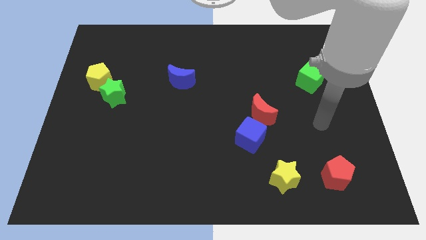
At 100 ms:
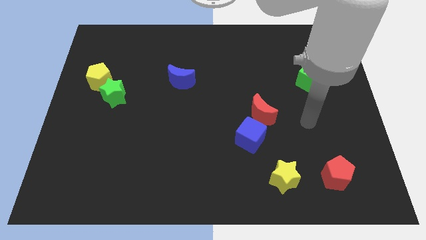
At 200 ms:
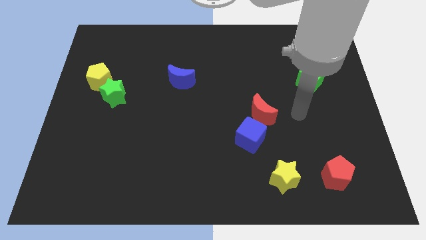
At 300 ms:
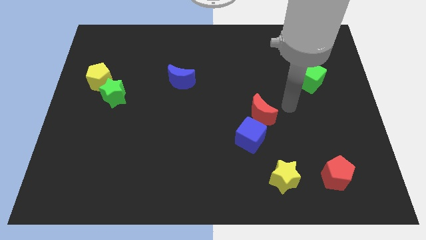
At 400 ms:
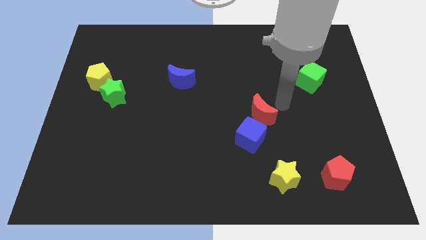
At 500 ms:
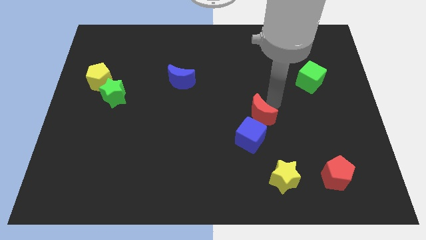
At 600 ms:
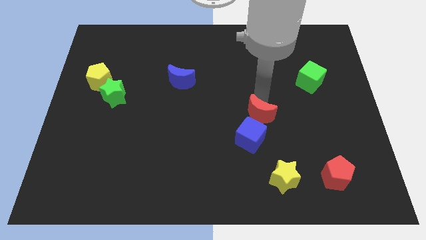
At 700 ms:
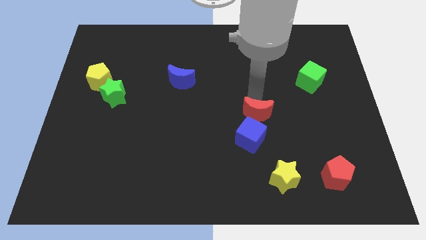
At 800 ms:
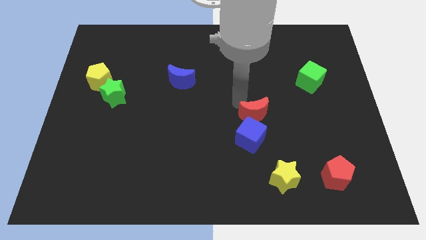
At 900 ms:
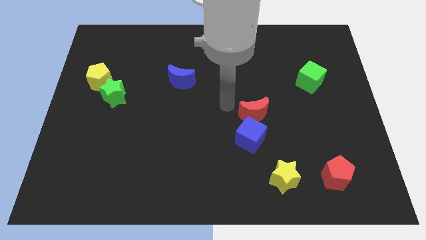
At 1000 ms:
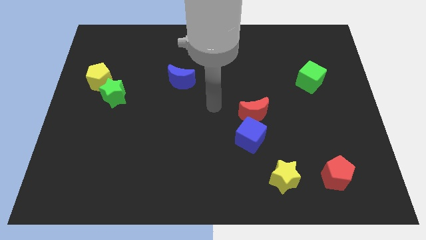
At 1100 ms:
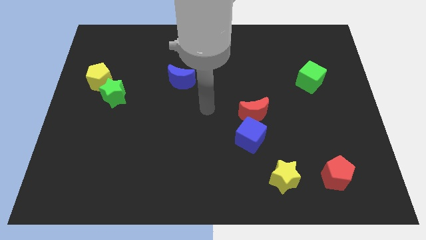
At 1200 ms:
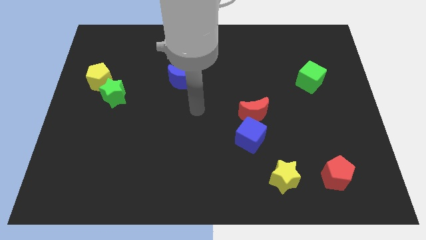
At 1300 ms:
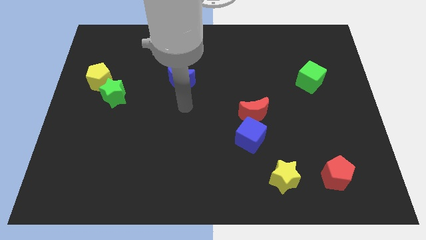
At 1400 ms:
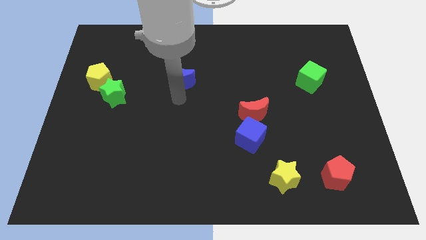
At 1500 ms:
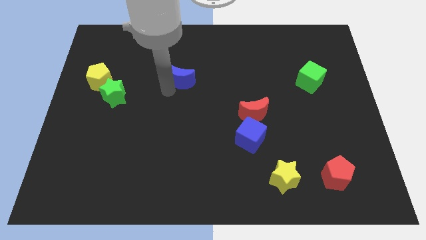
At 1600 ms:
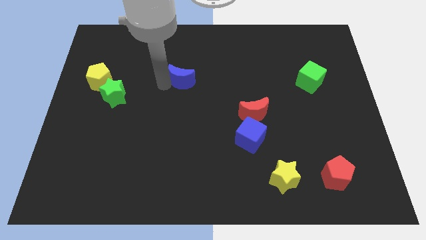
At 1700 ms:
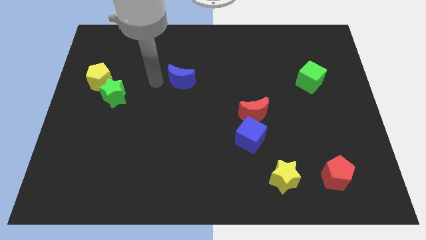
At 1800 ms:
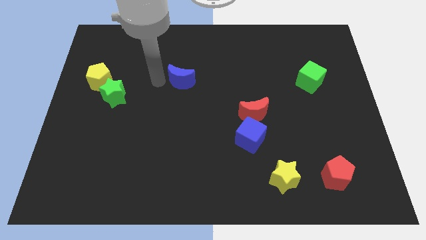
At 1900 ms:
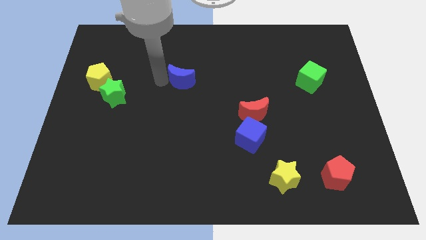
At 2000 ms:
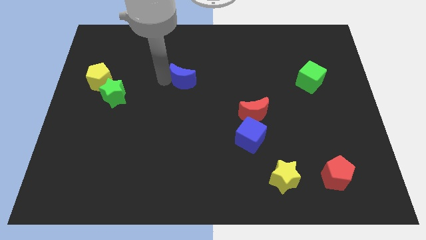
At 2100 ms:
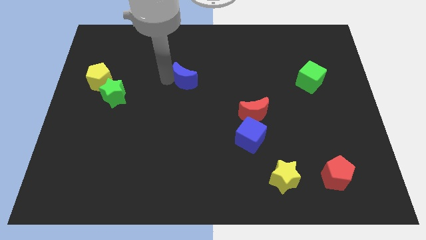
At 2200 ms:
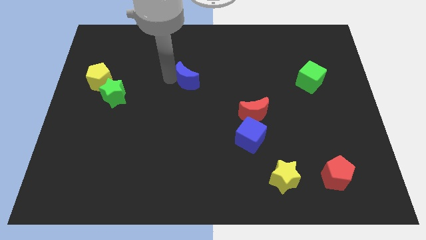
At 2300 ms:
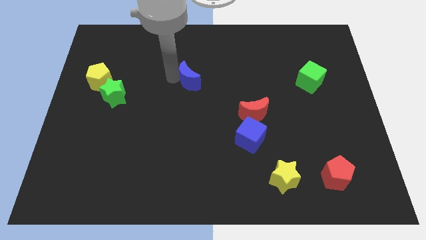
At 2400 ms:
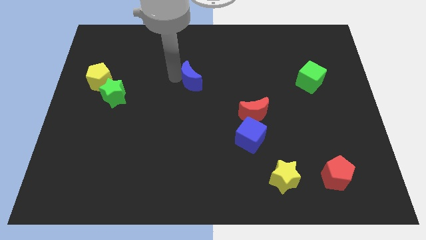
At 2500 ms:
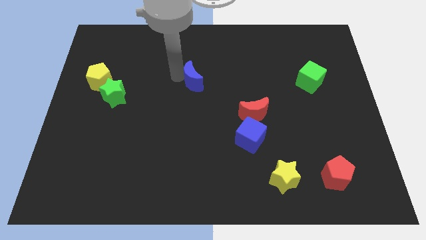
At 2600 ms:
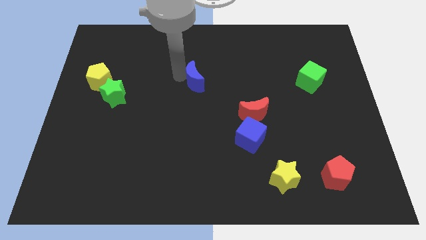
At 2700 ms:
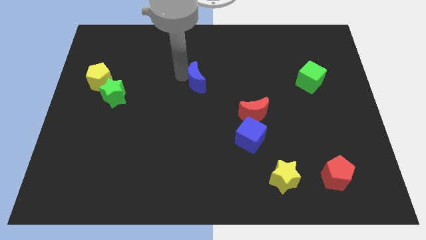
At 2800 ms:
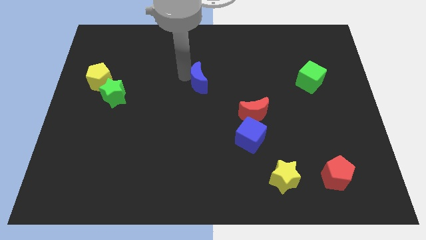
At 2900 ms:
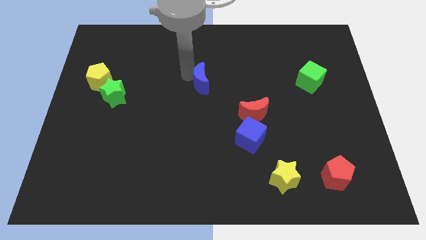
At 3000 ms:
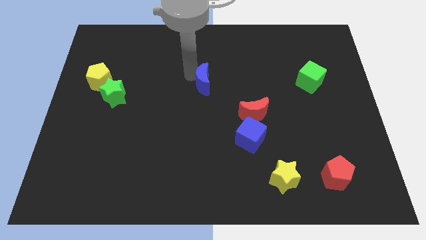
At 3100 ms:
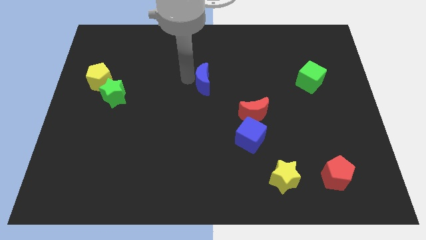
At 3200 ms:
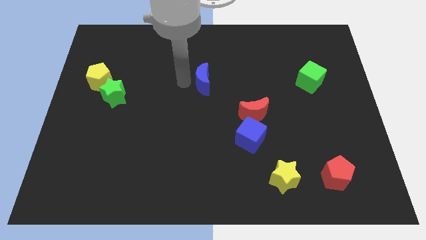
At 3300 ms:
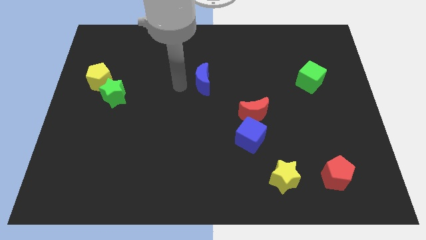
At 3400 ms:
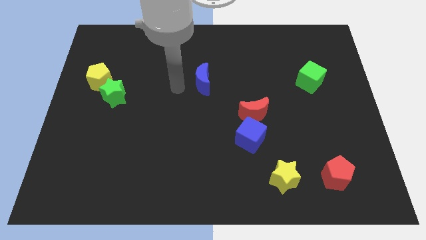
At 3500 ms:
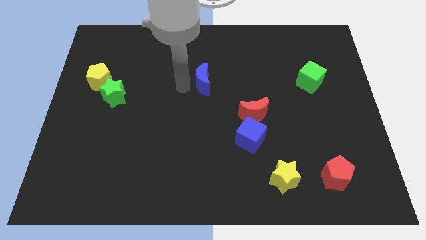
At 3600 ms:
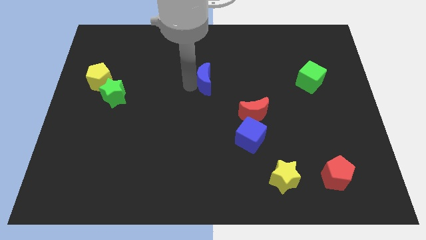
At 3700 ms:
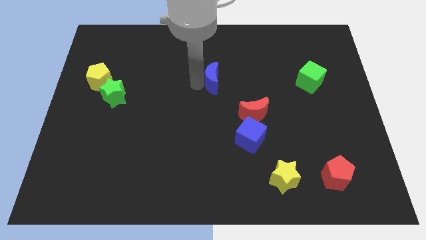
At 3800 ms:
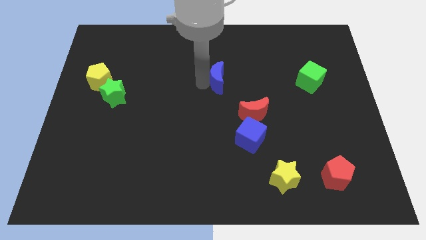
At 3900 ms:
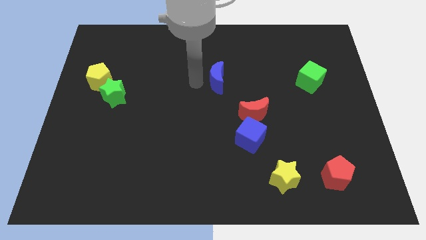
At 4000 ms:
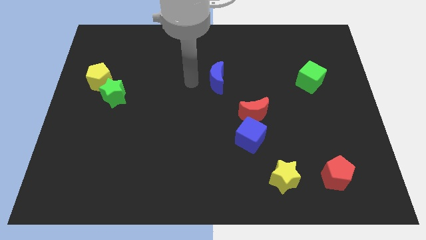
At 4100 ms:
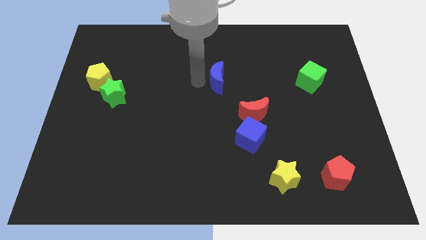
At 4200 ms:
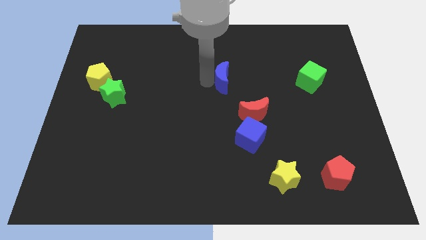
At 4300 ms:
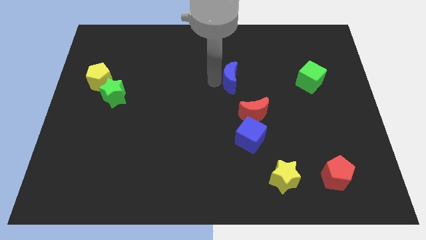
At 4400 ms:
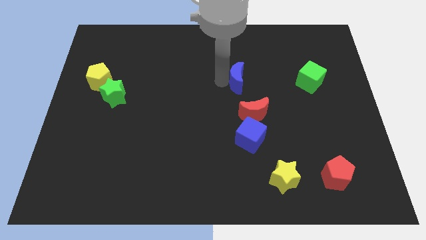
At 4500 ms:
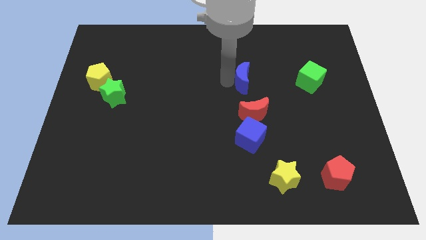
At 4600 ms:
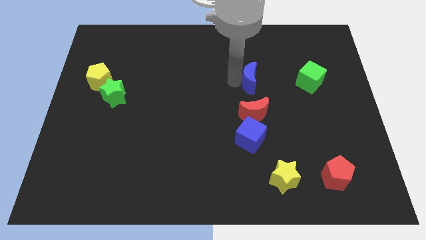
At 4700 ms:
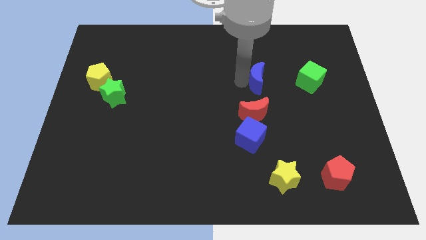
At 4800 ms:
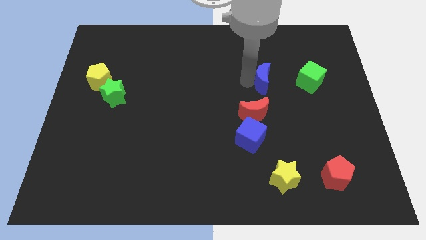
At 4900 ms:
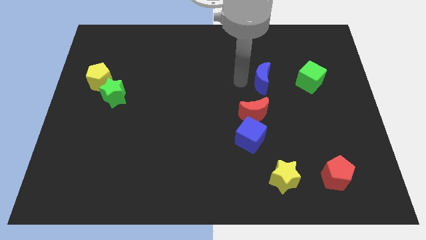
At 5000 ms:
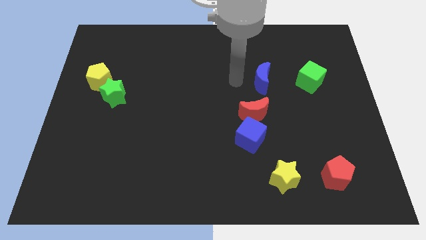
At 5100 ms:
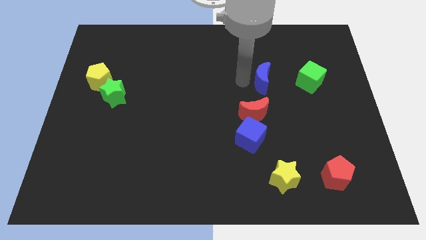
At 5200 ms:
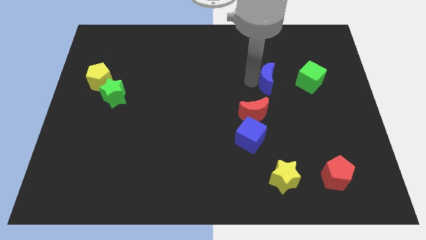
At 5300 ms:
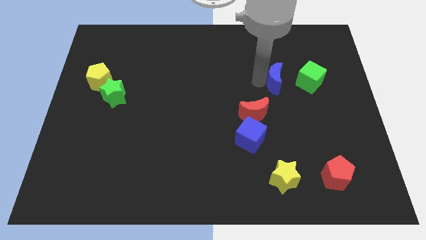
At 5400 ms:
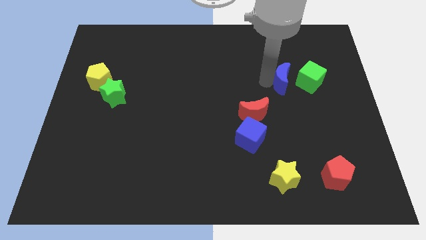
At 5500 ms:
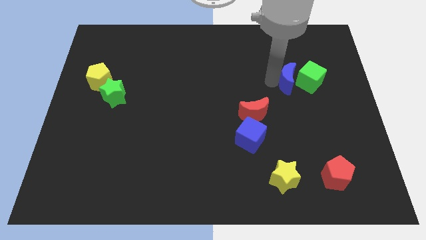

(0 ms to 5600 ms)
push the blue moon close to the green cube

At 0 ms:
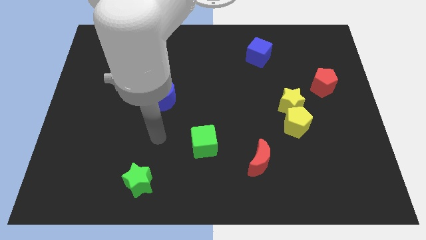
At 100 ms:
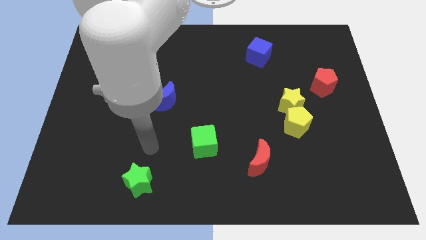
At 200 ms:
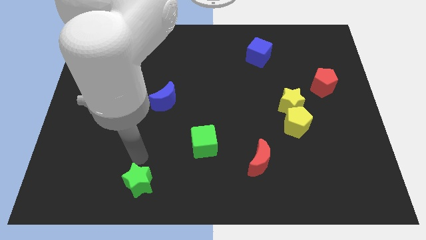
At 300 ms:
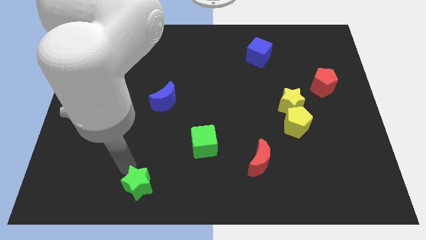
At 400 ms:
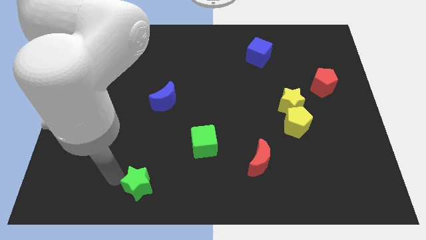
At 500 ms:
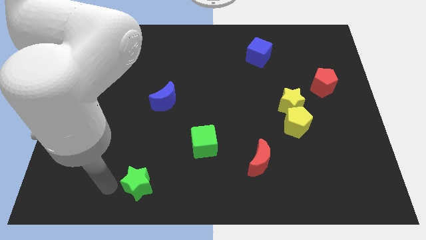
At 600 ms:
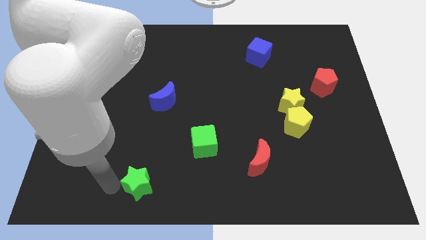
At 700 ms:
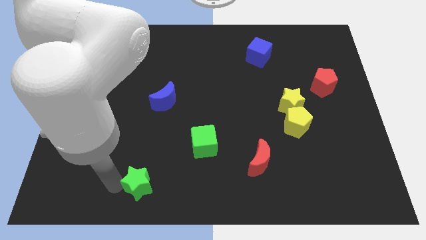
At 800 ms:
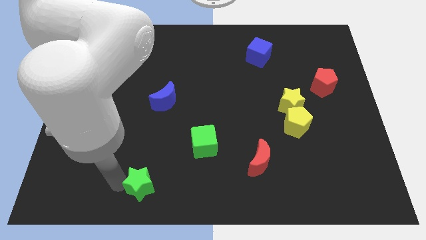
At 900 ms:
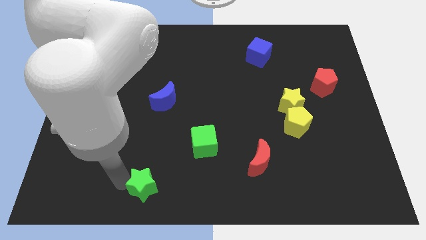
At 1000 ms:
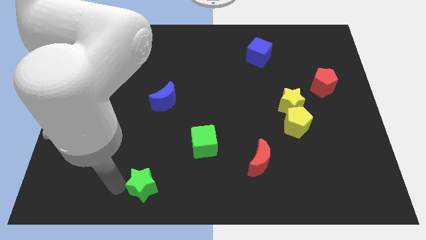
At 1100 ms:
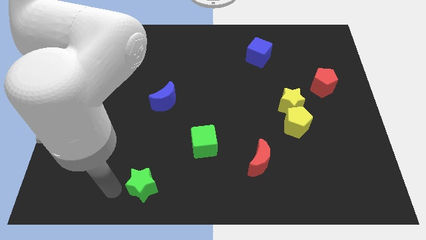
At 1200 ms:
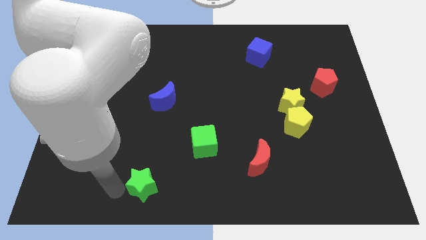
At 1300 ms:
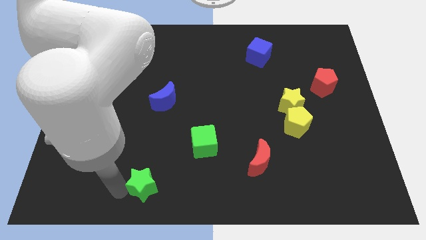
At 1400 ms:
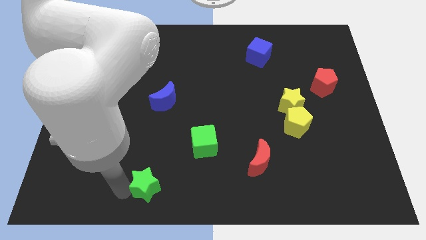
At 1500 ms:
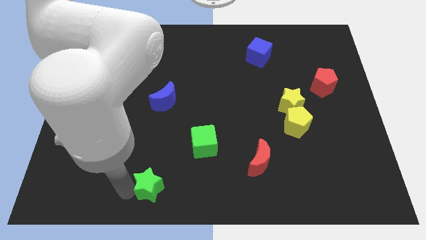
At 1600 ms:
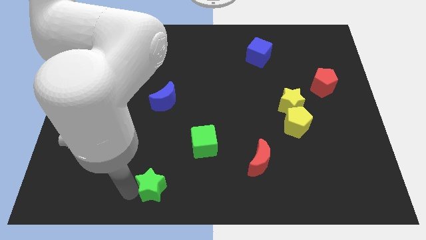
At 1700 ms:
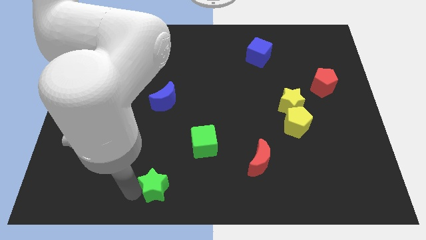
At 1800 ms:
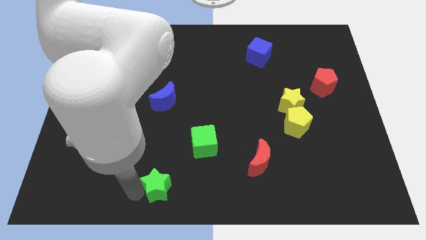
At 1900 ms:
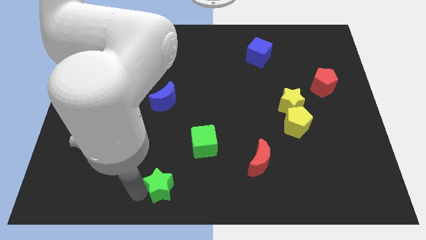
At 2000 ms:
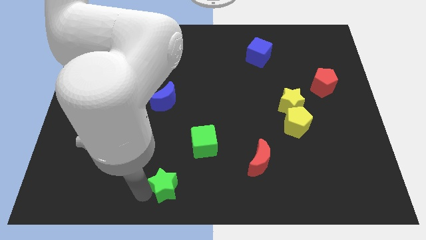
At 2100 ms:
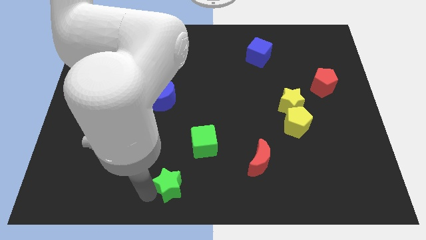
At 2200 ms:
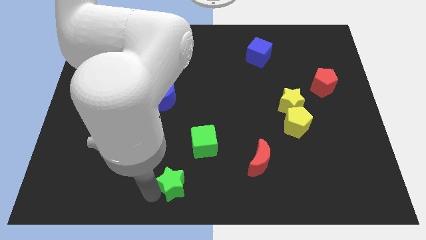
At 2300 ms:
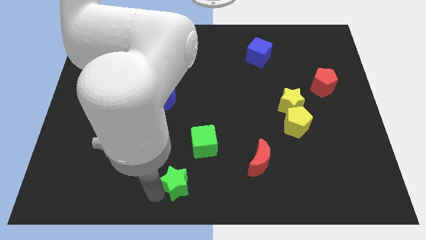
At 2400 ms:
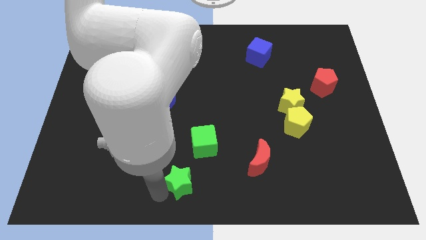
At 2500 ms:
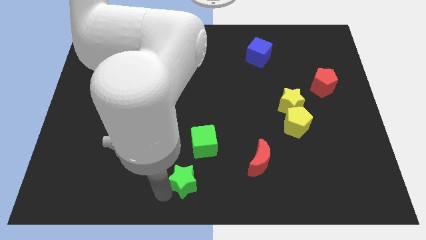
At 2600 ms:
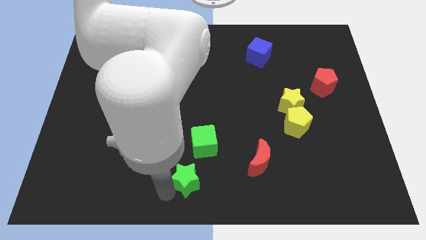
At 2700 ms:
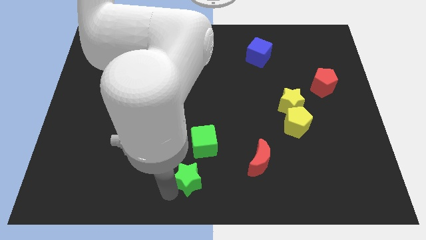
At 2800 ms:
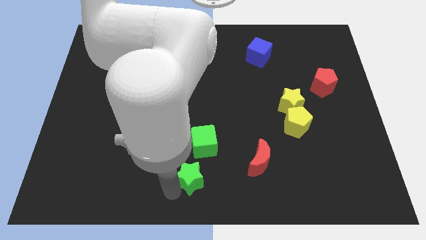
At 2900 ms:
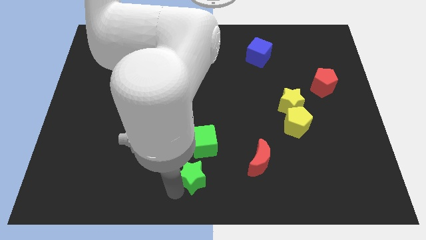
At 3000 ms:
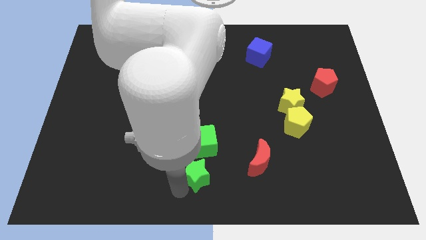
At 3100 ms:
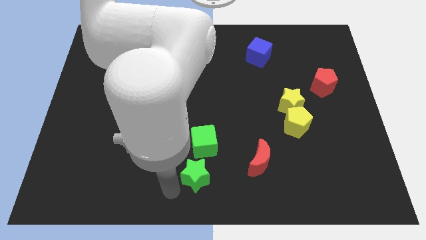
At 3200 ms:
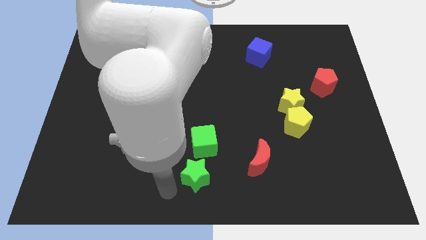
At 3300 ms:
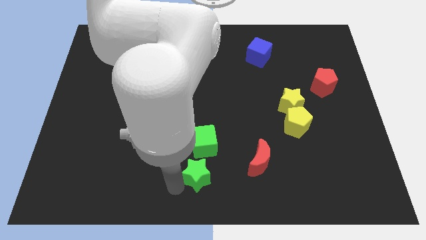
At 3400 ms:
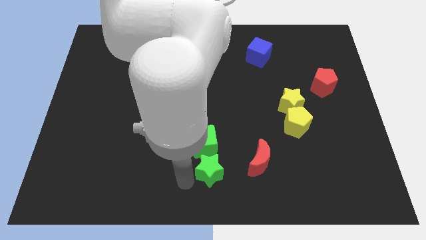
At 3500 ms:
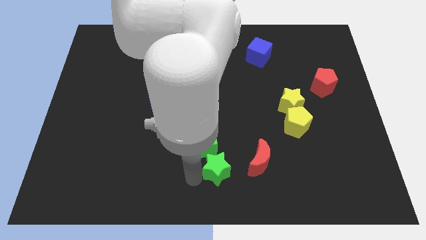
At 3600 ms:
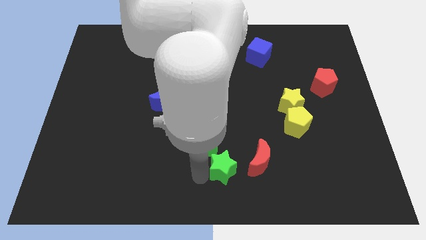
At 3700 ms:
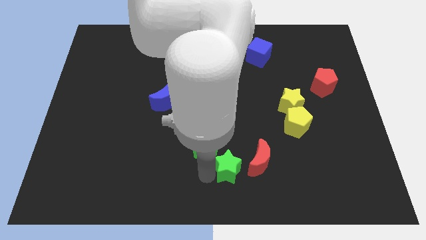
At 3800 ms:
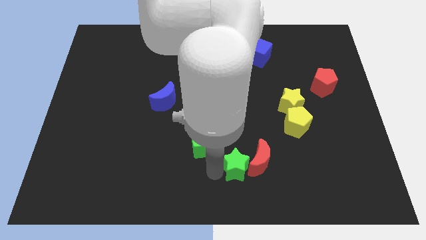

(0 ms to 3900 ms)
push the green star towards the red moon
